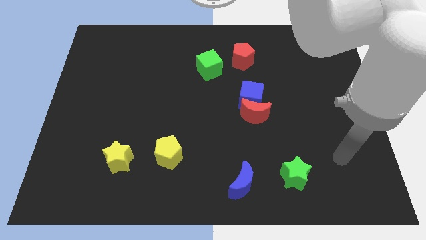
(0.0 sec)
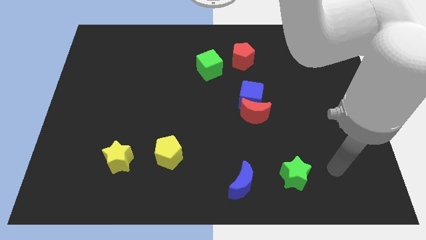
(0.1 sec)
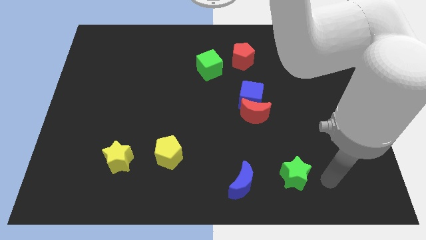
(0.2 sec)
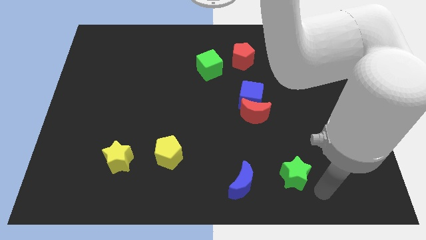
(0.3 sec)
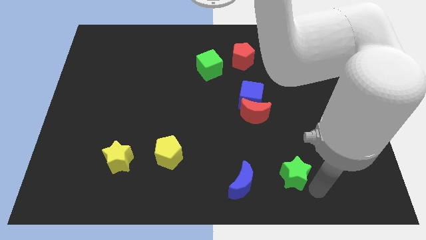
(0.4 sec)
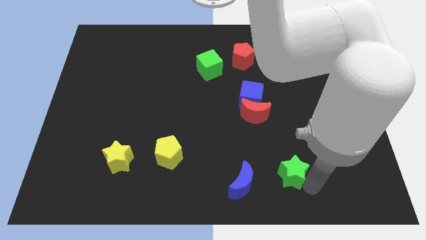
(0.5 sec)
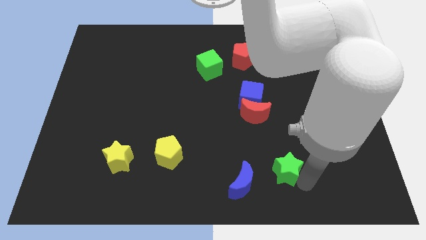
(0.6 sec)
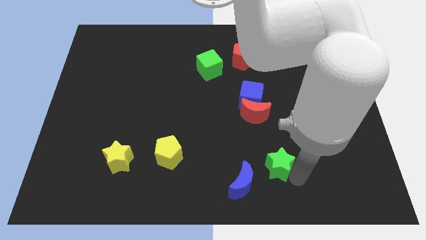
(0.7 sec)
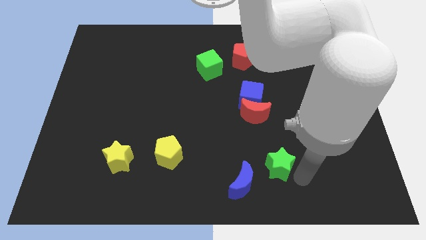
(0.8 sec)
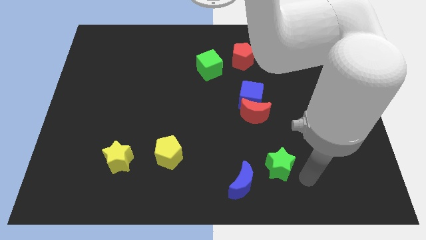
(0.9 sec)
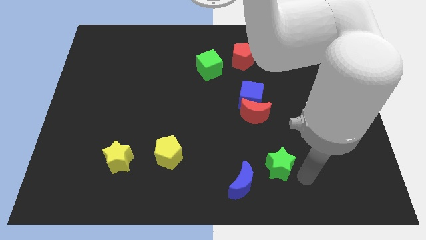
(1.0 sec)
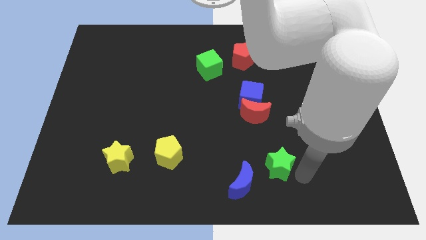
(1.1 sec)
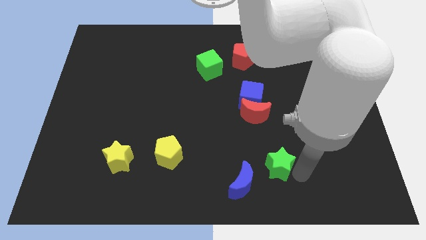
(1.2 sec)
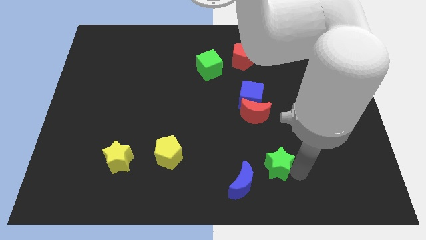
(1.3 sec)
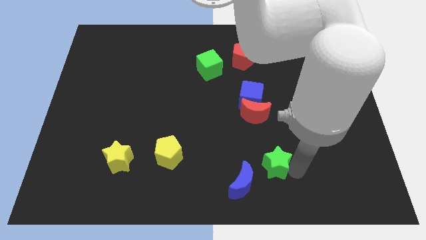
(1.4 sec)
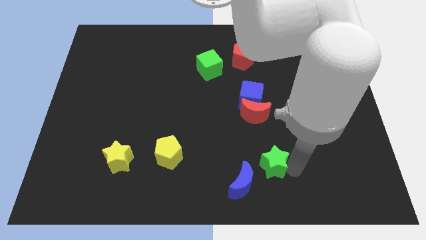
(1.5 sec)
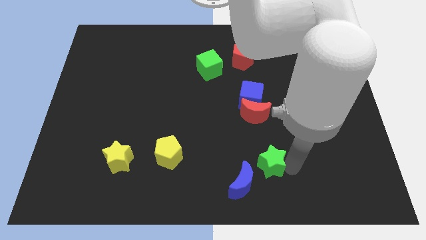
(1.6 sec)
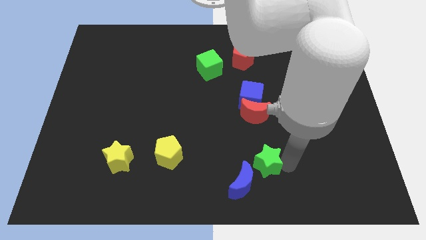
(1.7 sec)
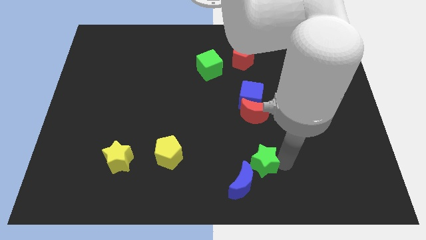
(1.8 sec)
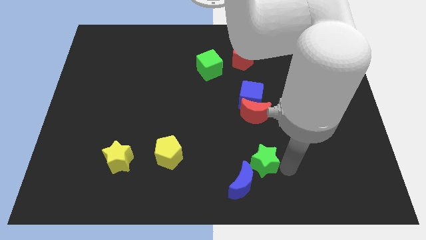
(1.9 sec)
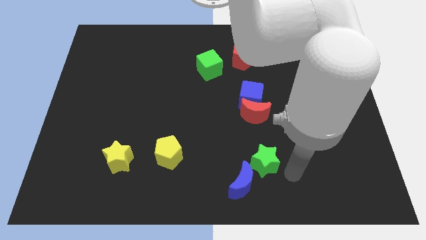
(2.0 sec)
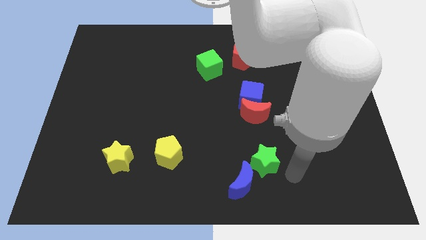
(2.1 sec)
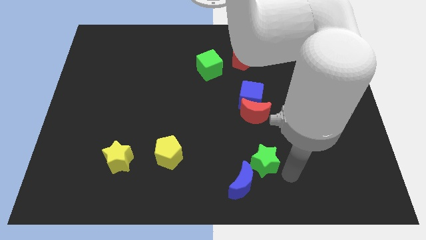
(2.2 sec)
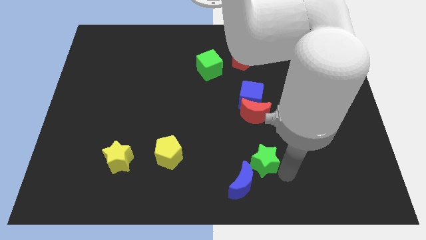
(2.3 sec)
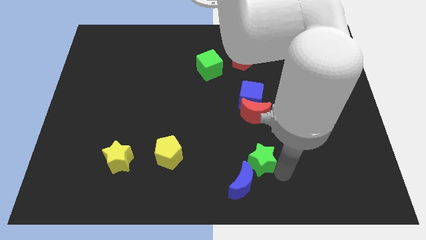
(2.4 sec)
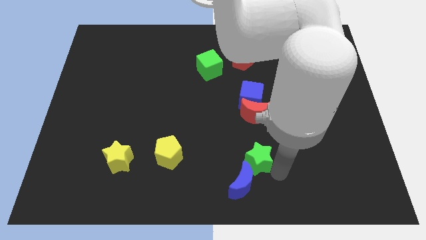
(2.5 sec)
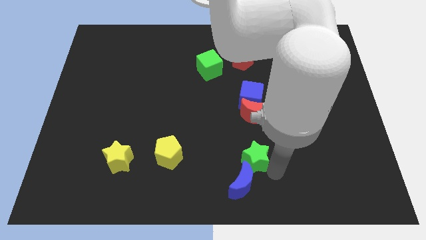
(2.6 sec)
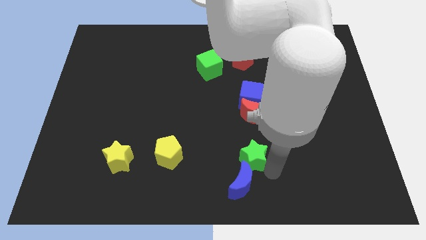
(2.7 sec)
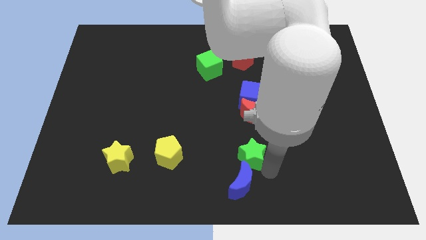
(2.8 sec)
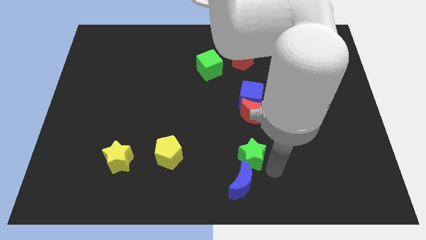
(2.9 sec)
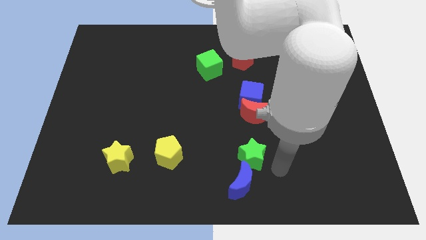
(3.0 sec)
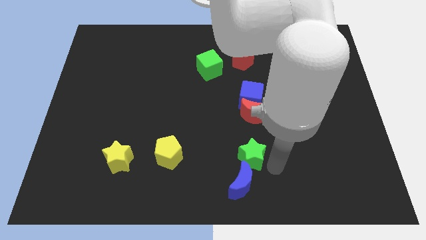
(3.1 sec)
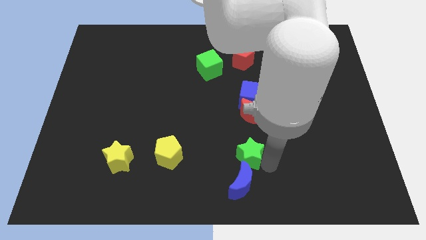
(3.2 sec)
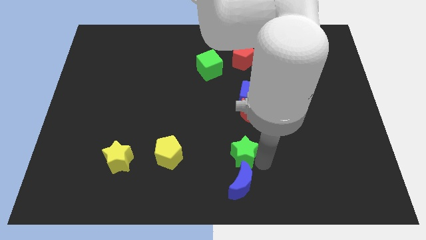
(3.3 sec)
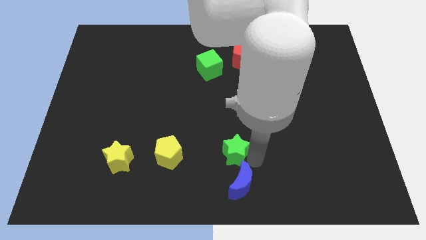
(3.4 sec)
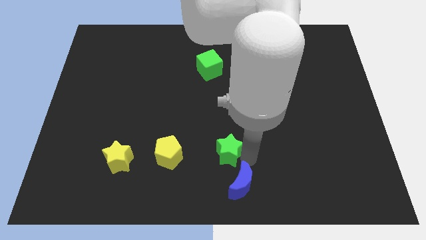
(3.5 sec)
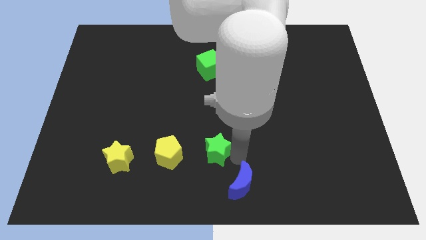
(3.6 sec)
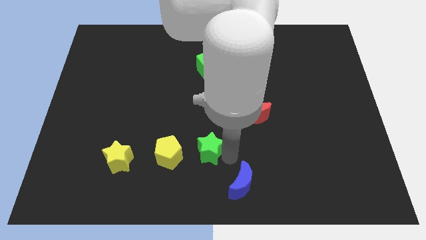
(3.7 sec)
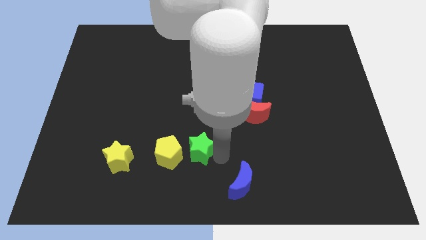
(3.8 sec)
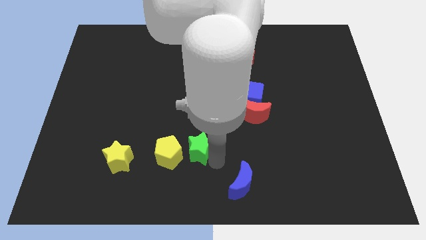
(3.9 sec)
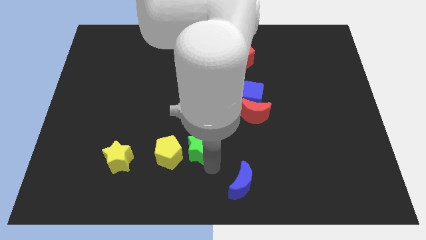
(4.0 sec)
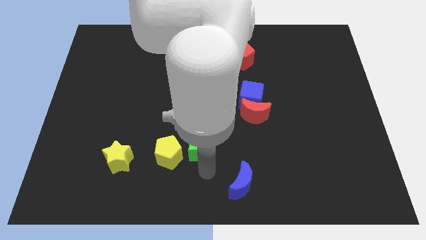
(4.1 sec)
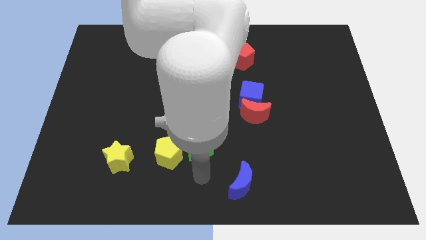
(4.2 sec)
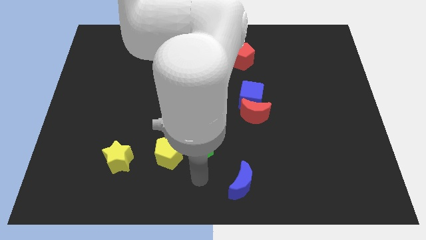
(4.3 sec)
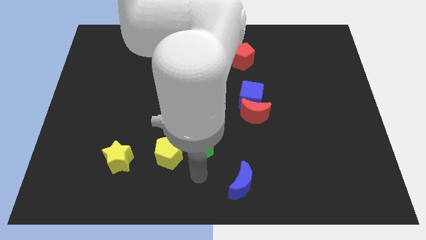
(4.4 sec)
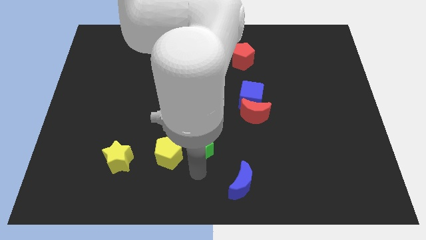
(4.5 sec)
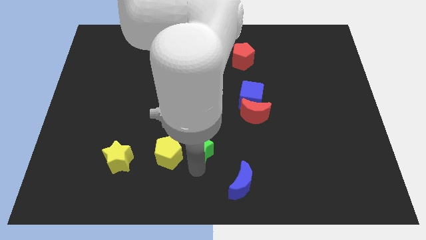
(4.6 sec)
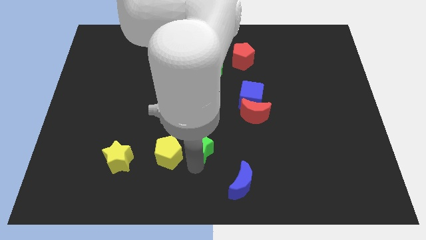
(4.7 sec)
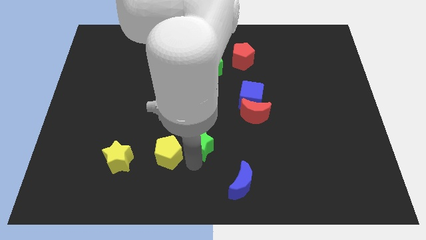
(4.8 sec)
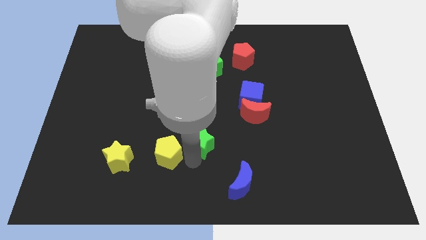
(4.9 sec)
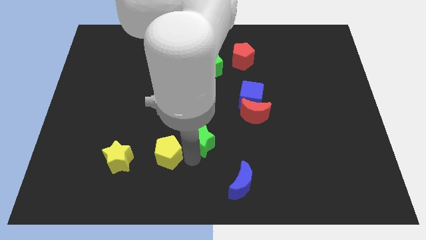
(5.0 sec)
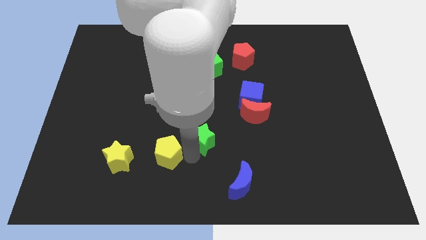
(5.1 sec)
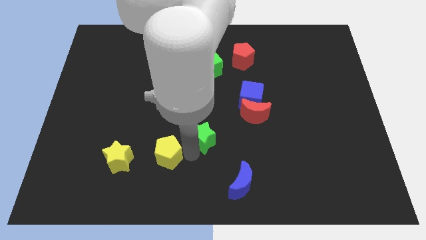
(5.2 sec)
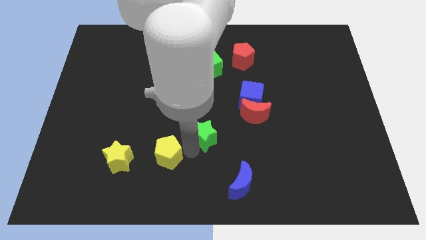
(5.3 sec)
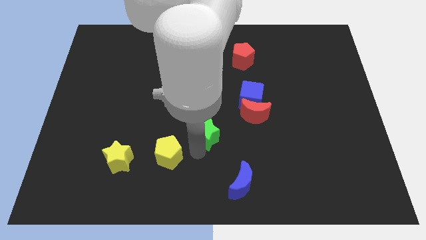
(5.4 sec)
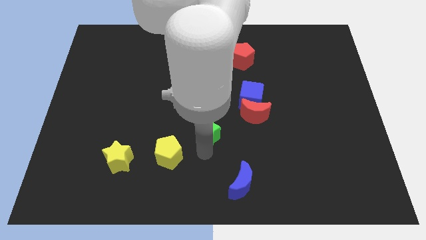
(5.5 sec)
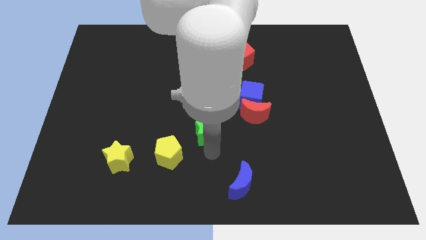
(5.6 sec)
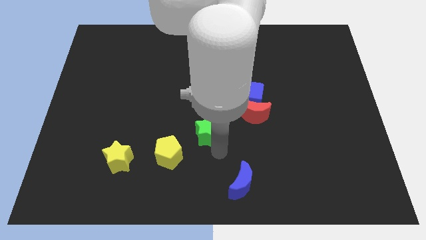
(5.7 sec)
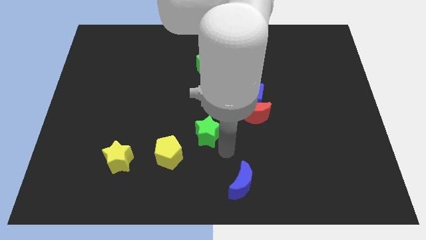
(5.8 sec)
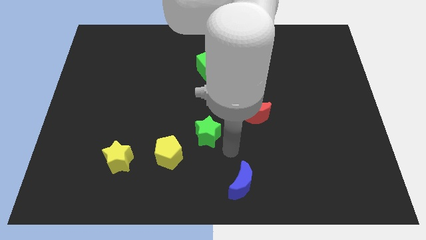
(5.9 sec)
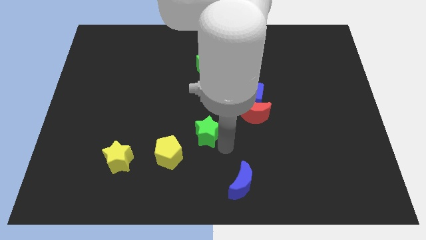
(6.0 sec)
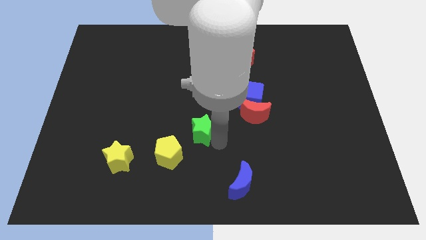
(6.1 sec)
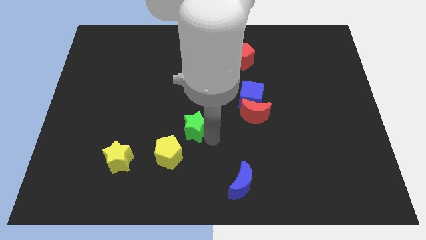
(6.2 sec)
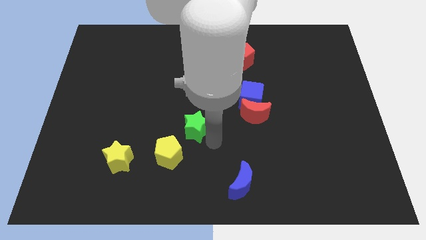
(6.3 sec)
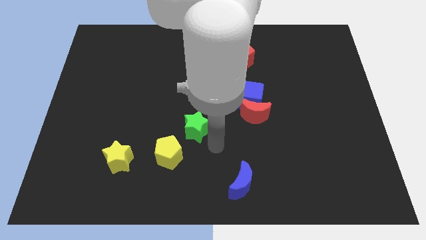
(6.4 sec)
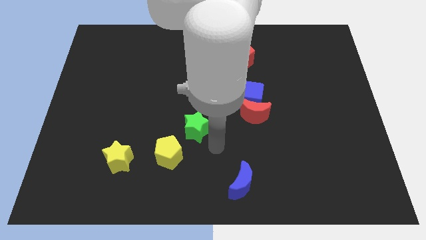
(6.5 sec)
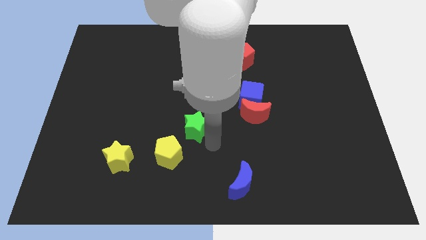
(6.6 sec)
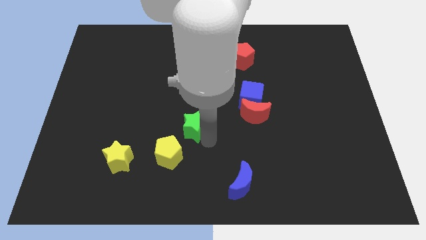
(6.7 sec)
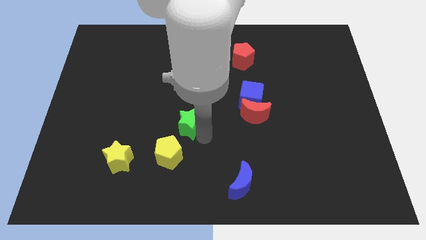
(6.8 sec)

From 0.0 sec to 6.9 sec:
move the green star above the yellow pentagon
